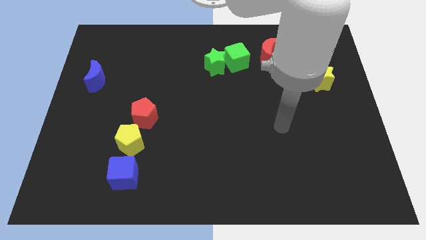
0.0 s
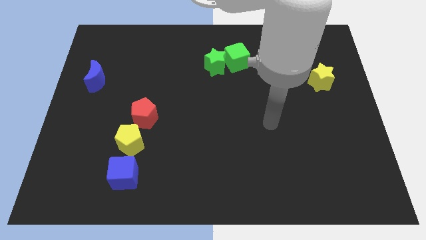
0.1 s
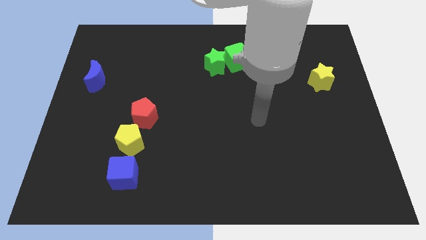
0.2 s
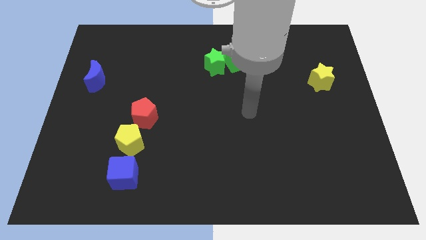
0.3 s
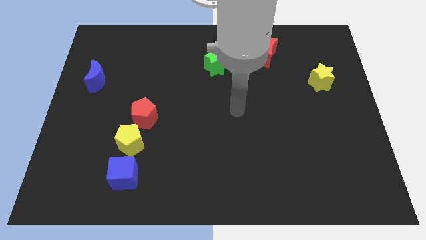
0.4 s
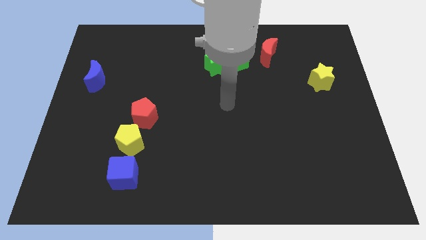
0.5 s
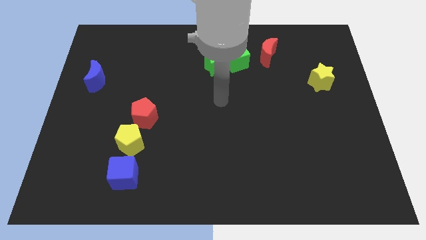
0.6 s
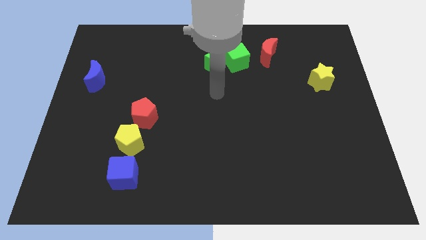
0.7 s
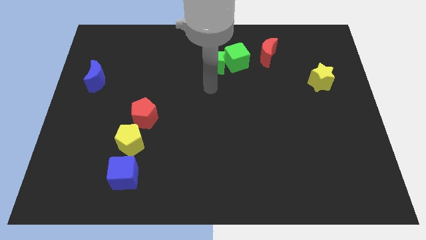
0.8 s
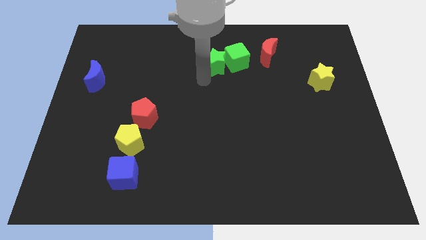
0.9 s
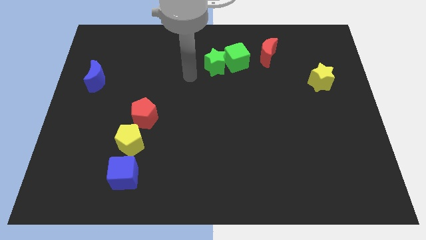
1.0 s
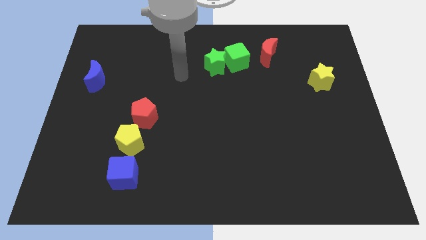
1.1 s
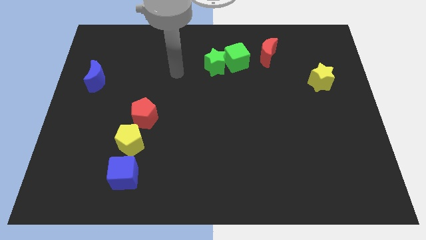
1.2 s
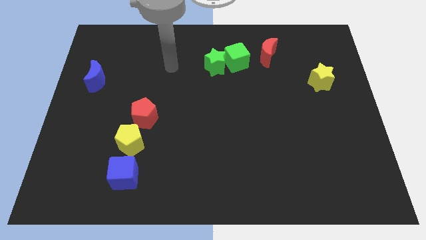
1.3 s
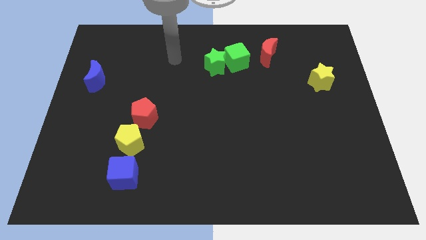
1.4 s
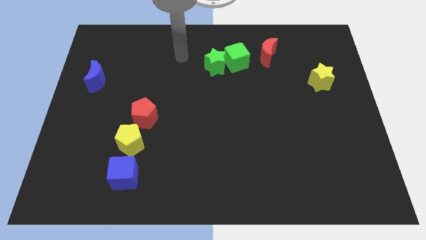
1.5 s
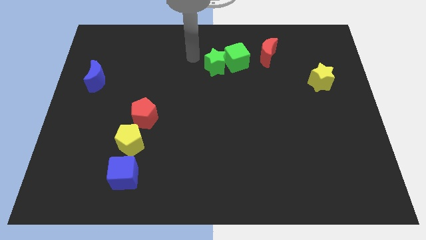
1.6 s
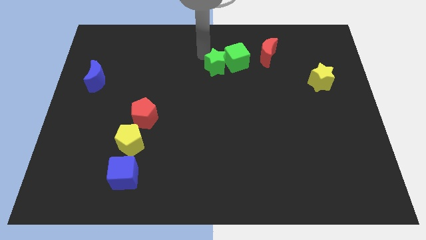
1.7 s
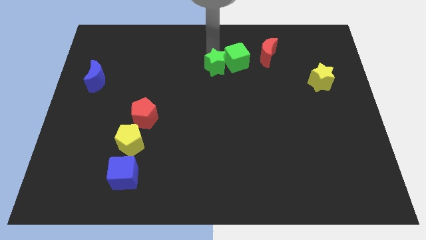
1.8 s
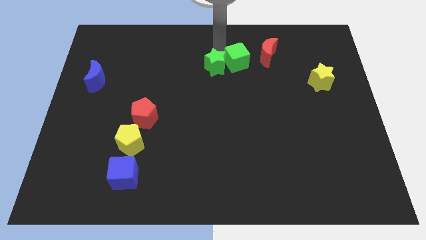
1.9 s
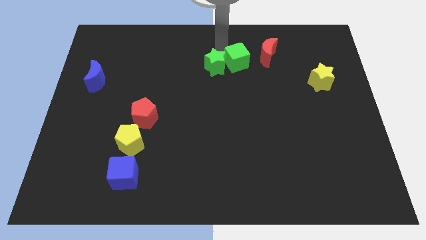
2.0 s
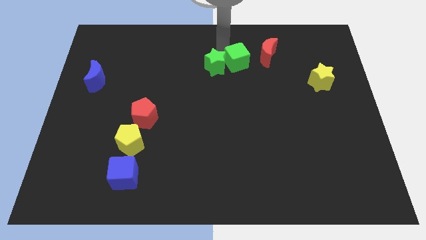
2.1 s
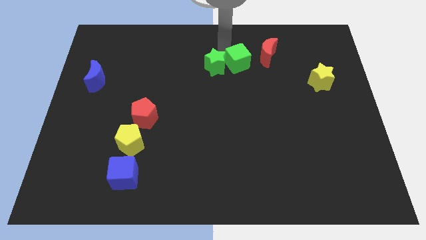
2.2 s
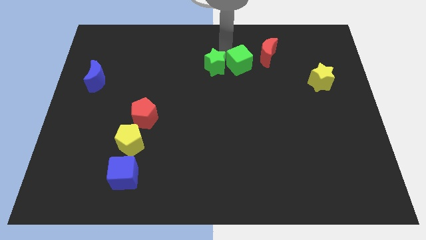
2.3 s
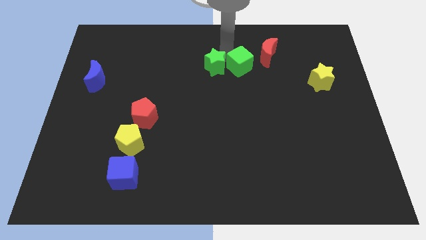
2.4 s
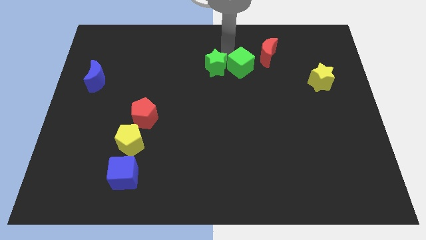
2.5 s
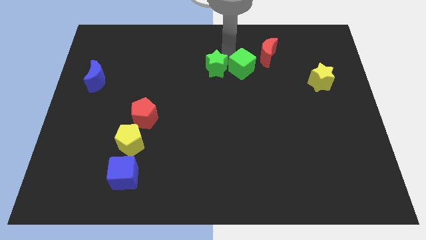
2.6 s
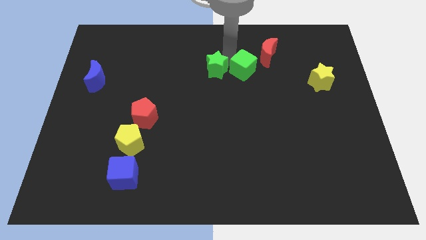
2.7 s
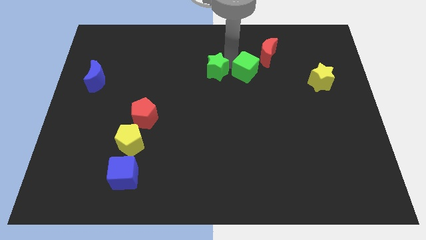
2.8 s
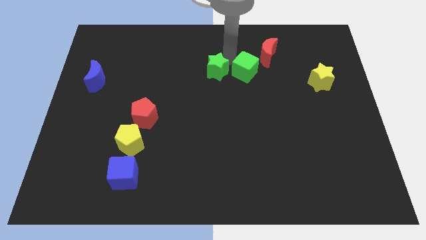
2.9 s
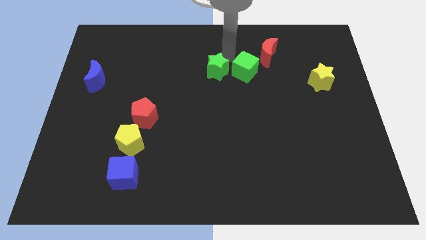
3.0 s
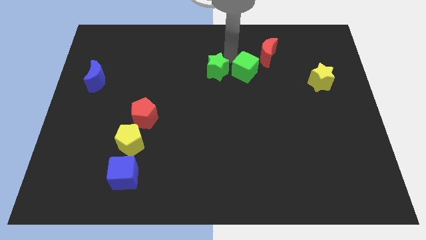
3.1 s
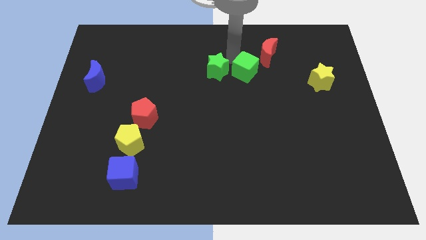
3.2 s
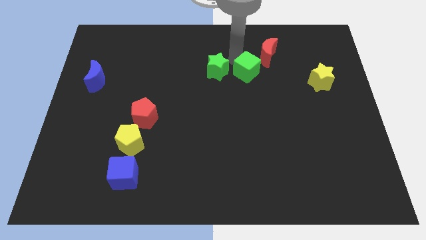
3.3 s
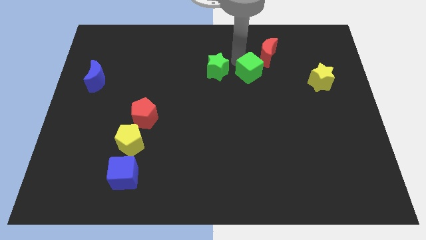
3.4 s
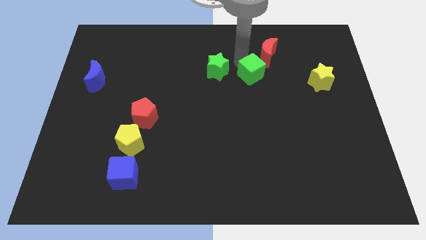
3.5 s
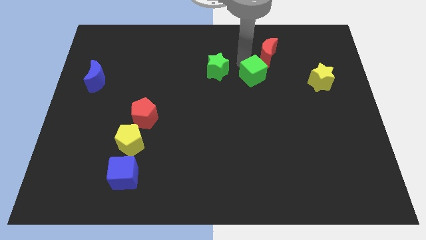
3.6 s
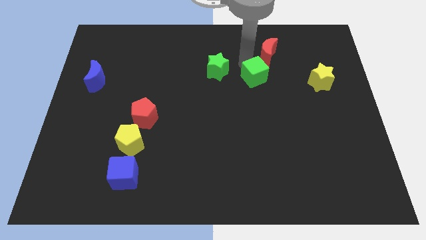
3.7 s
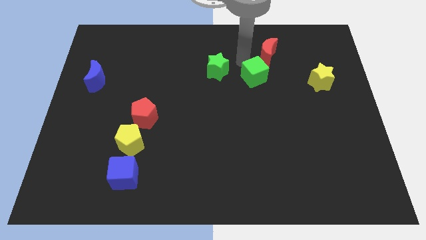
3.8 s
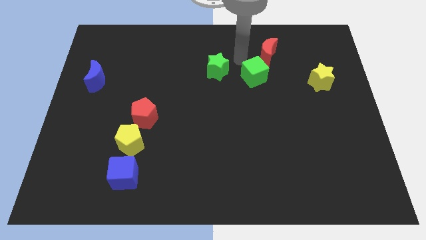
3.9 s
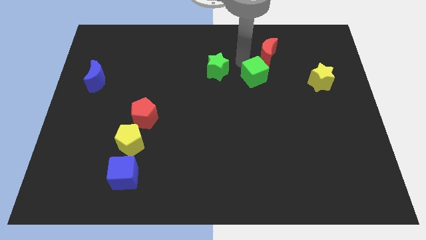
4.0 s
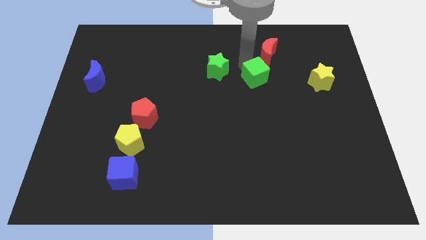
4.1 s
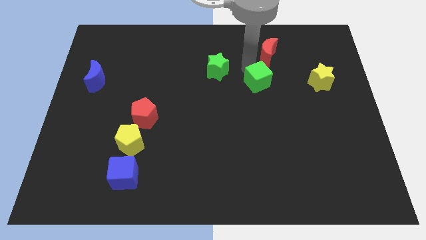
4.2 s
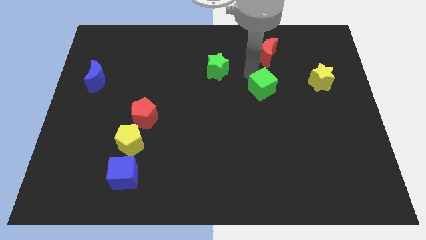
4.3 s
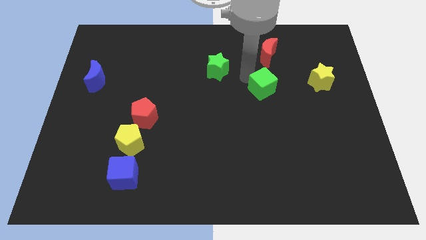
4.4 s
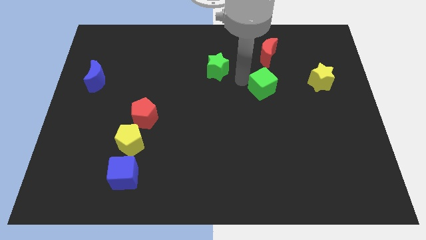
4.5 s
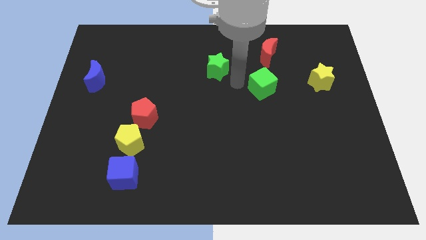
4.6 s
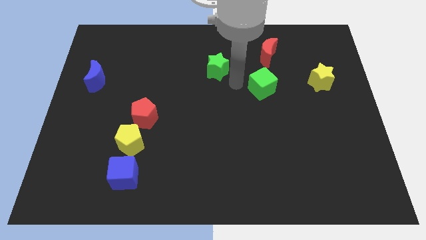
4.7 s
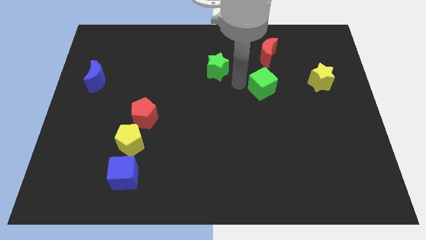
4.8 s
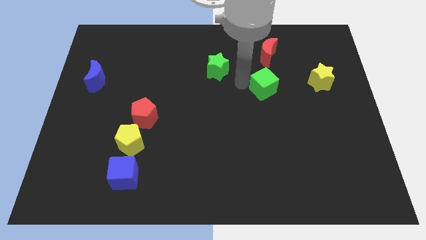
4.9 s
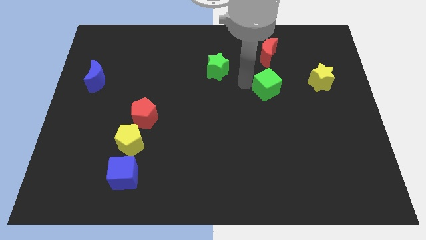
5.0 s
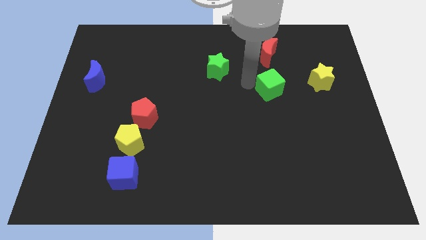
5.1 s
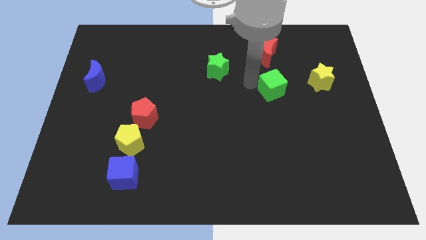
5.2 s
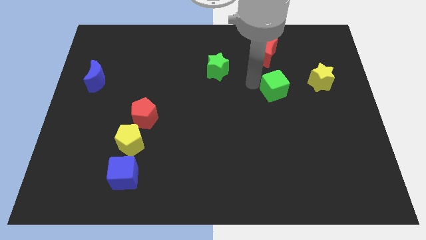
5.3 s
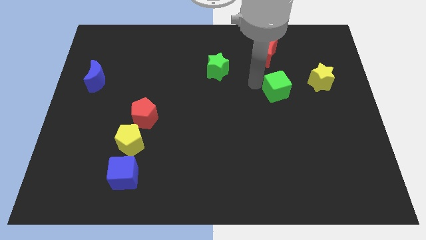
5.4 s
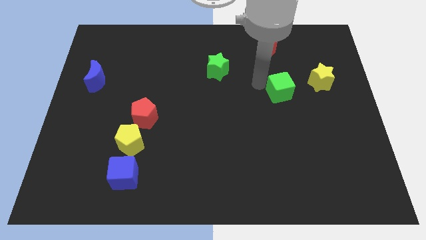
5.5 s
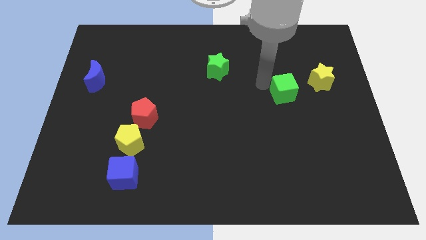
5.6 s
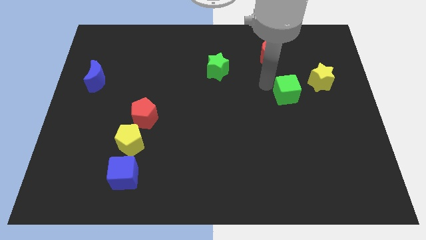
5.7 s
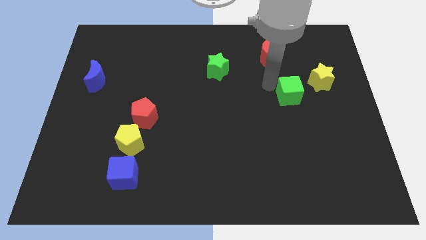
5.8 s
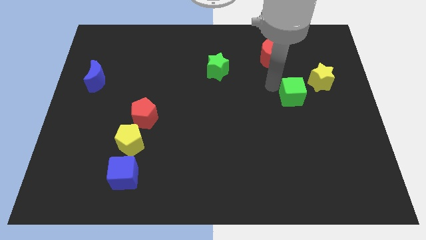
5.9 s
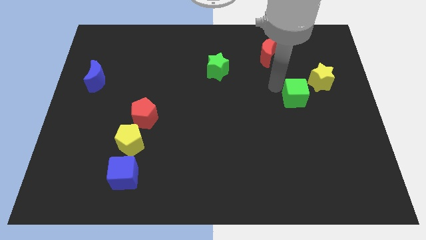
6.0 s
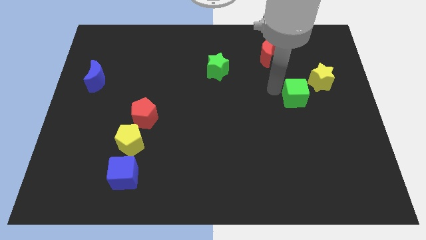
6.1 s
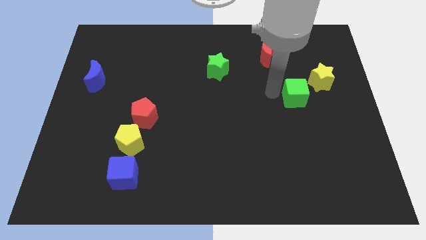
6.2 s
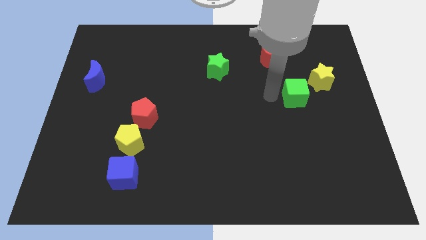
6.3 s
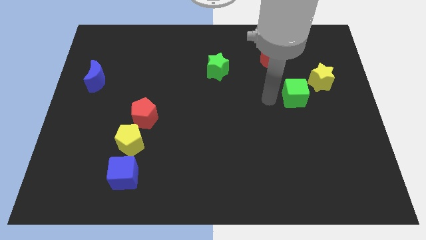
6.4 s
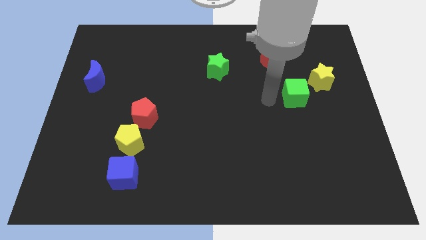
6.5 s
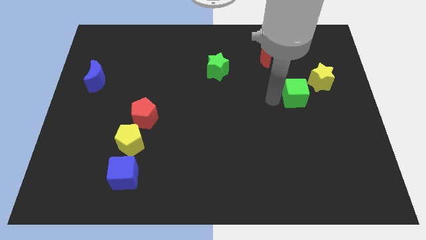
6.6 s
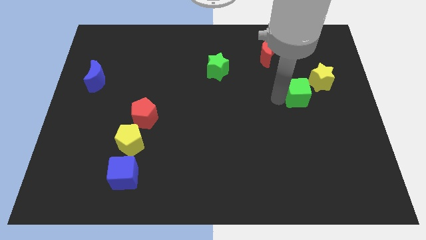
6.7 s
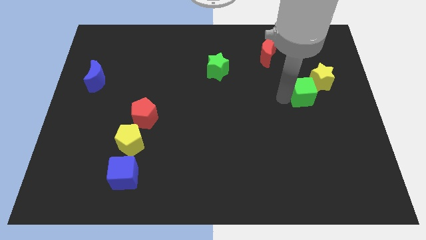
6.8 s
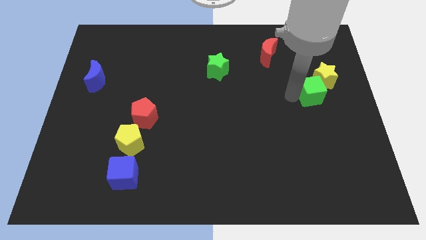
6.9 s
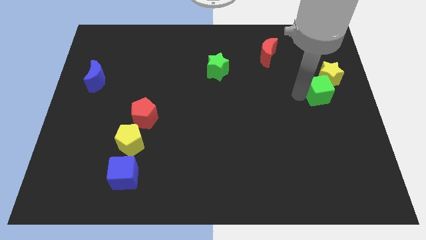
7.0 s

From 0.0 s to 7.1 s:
move the green cube to the right side
